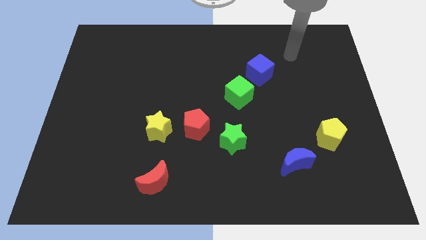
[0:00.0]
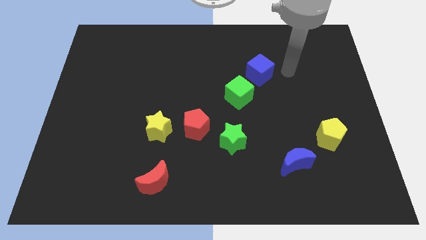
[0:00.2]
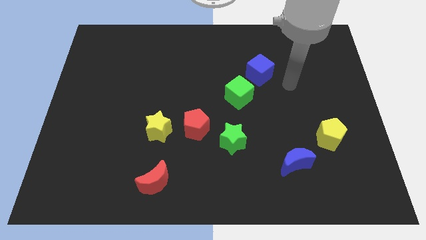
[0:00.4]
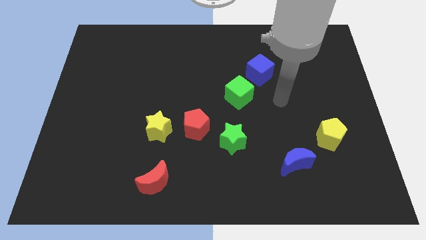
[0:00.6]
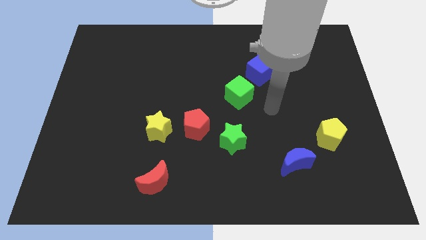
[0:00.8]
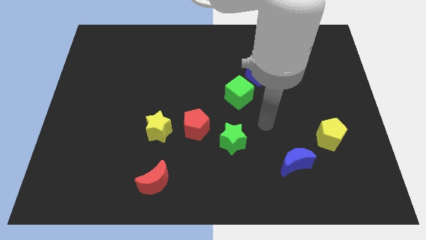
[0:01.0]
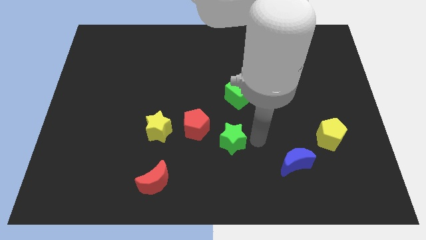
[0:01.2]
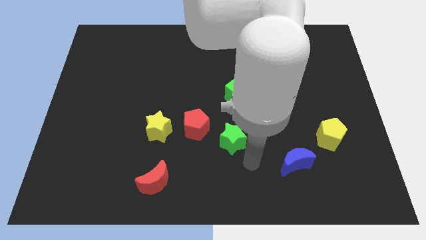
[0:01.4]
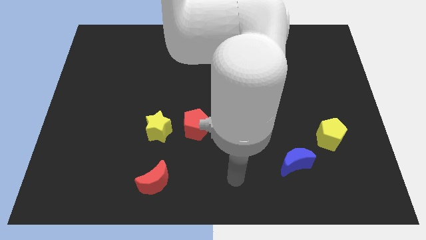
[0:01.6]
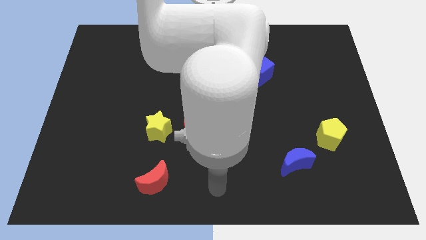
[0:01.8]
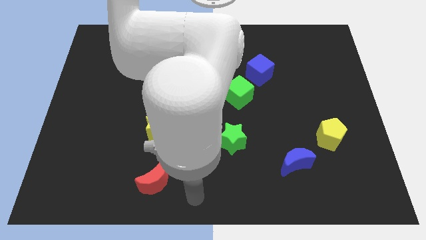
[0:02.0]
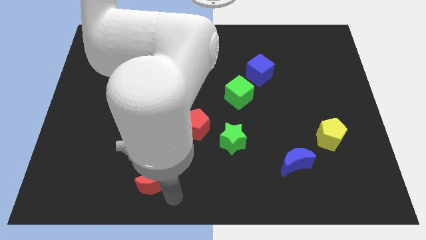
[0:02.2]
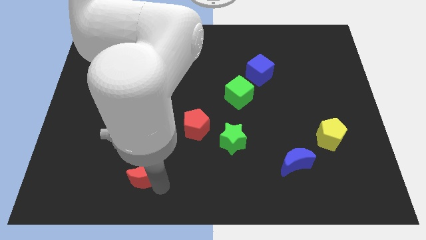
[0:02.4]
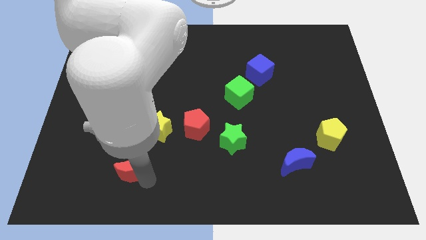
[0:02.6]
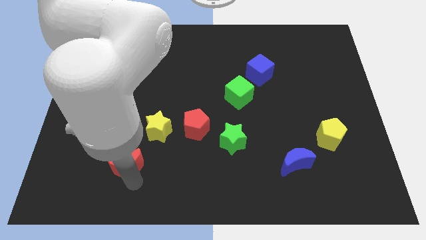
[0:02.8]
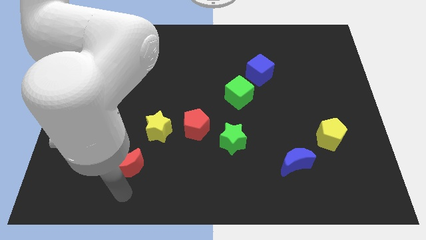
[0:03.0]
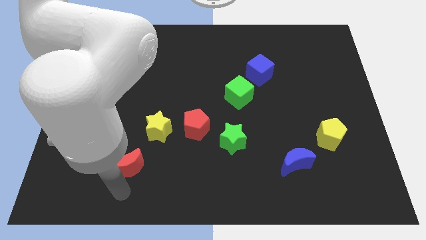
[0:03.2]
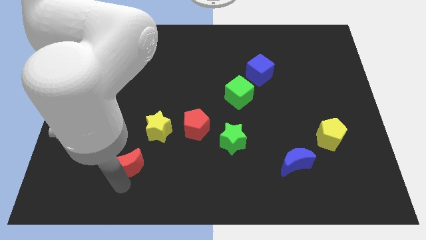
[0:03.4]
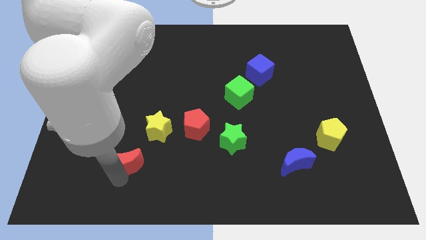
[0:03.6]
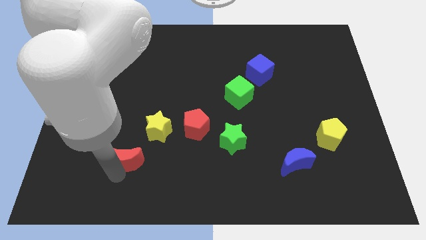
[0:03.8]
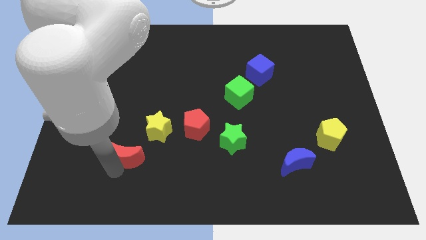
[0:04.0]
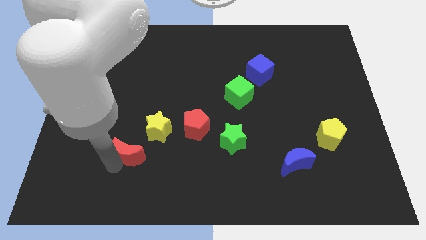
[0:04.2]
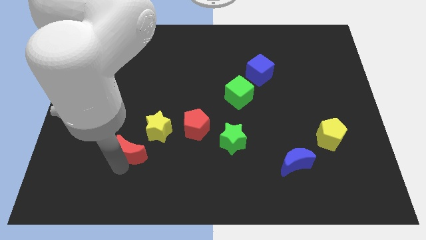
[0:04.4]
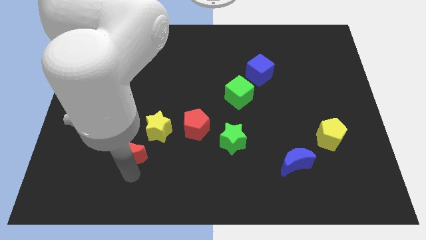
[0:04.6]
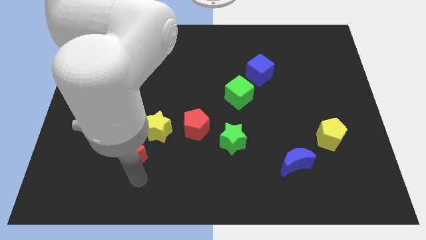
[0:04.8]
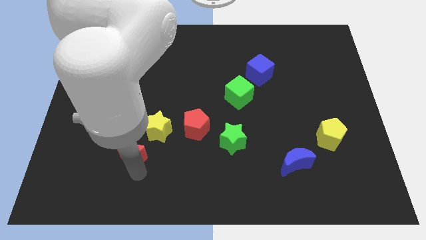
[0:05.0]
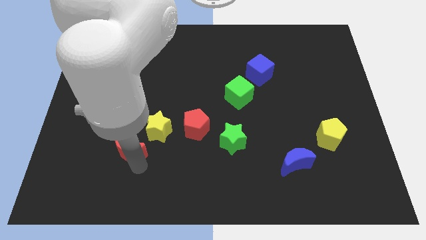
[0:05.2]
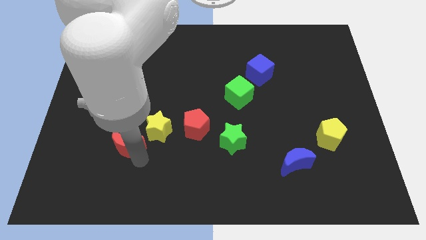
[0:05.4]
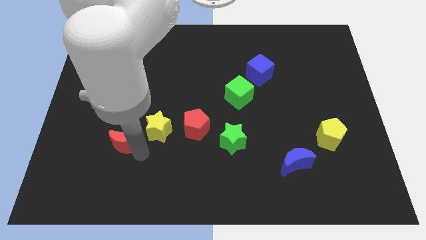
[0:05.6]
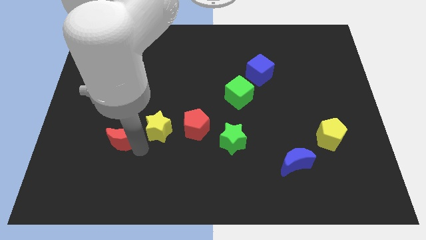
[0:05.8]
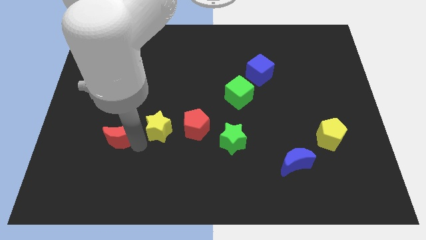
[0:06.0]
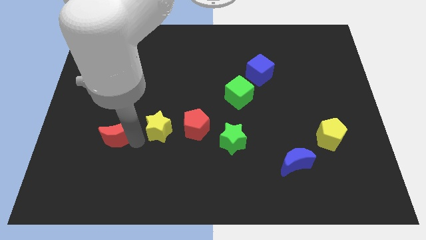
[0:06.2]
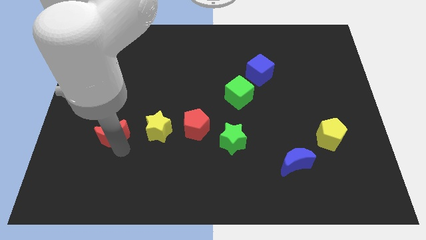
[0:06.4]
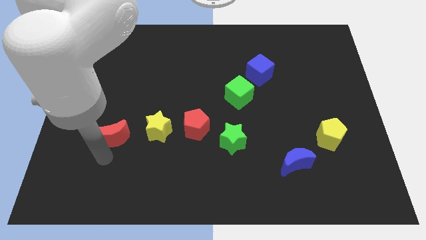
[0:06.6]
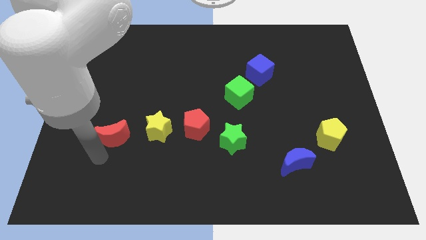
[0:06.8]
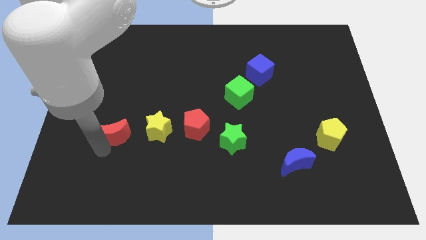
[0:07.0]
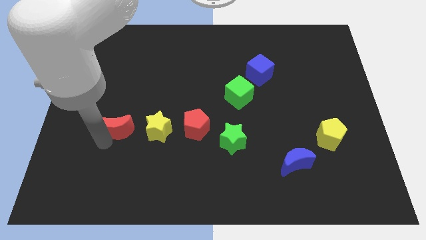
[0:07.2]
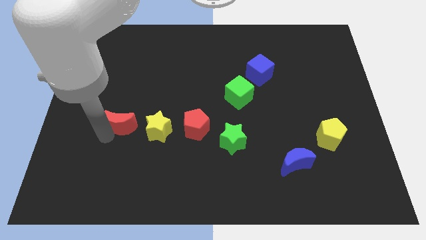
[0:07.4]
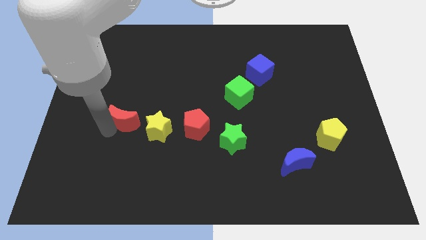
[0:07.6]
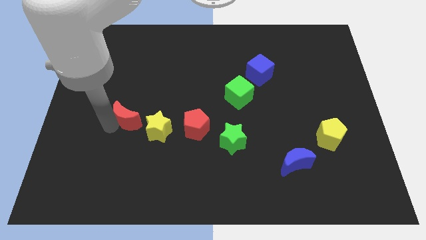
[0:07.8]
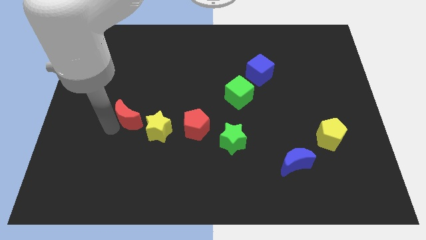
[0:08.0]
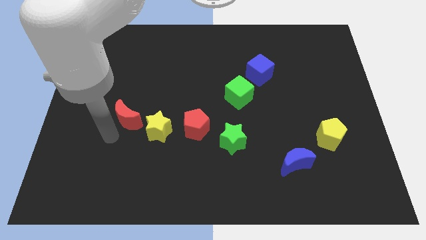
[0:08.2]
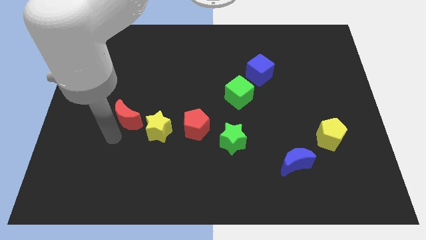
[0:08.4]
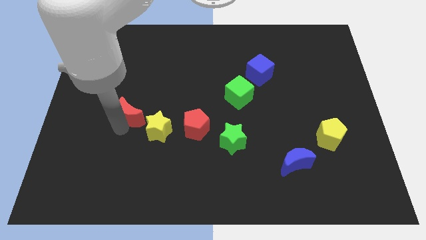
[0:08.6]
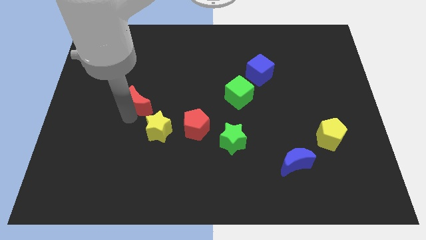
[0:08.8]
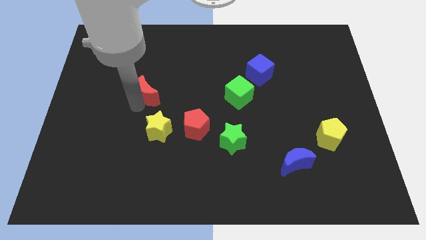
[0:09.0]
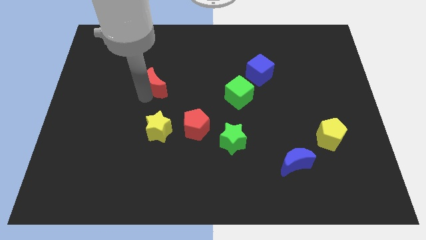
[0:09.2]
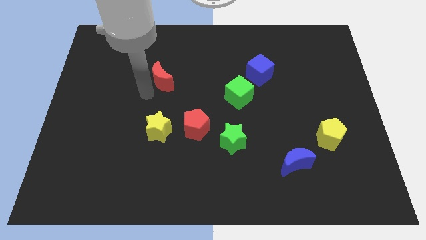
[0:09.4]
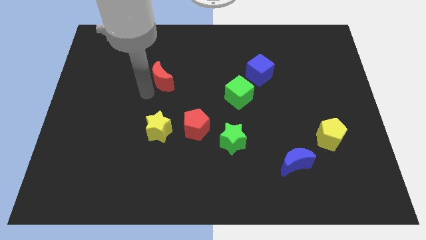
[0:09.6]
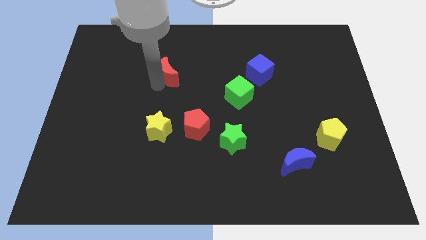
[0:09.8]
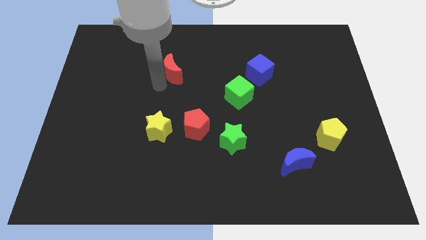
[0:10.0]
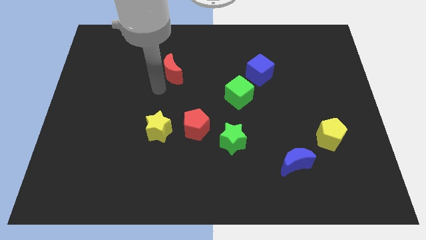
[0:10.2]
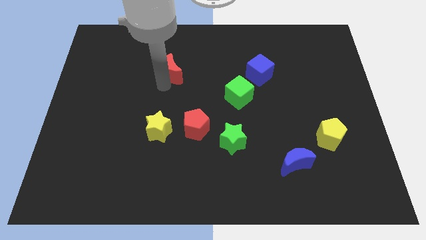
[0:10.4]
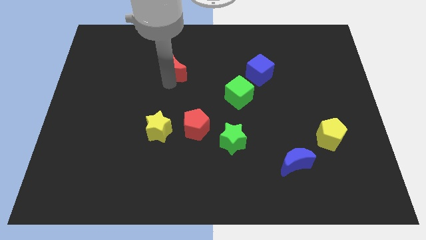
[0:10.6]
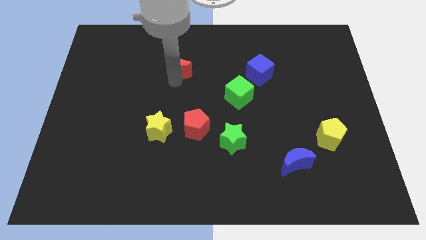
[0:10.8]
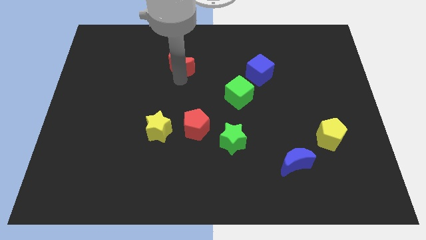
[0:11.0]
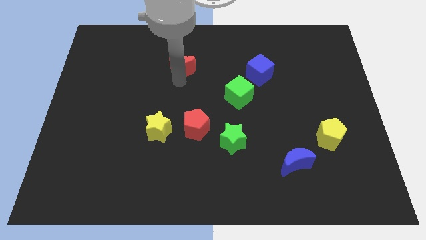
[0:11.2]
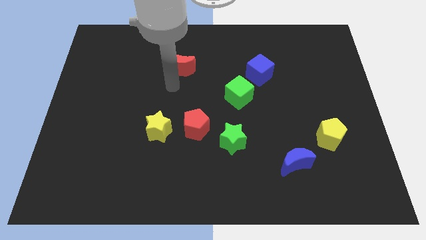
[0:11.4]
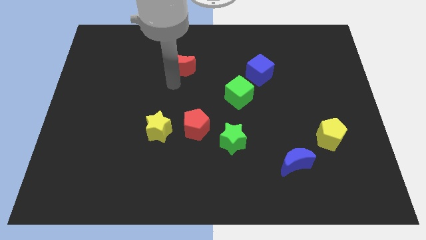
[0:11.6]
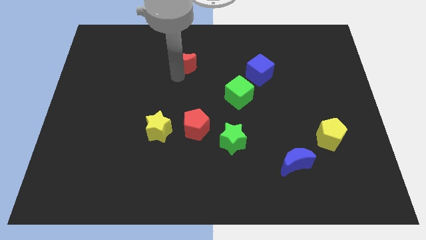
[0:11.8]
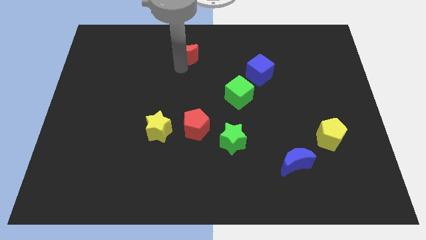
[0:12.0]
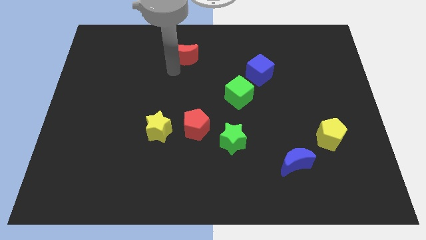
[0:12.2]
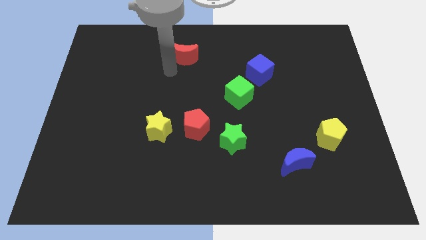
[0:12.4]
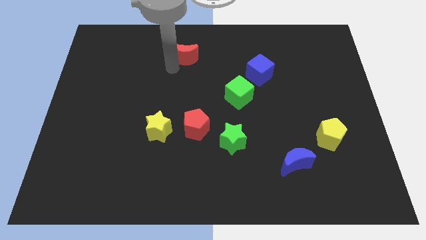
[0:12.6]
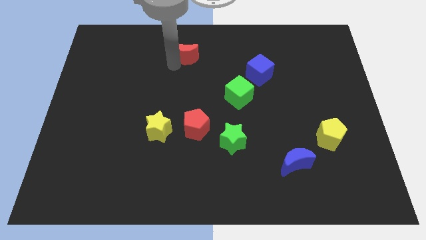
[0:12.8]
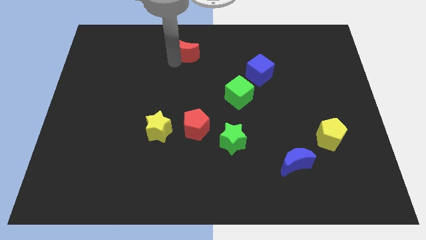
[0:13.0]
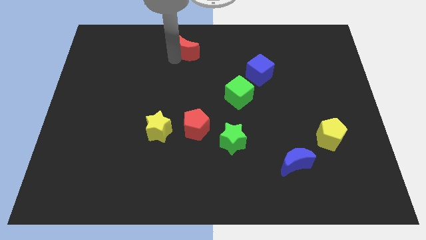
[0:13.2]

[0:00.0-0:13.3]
move the red moon to the towards your base

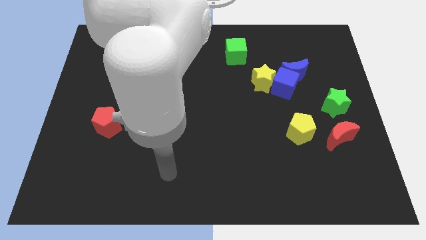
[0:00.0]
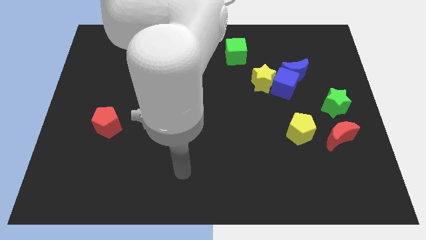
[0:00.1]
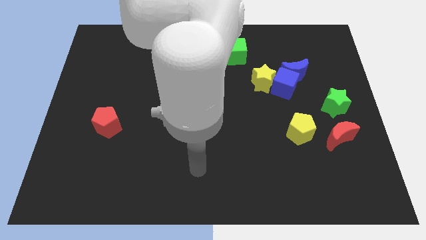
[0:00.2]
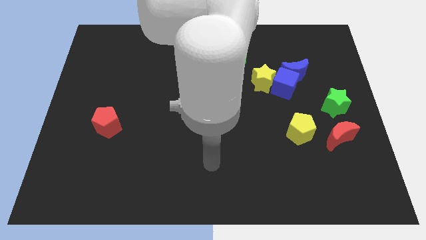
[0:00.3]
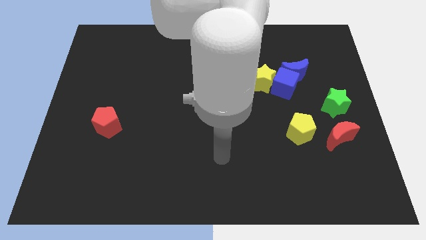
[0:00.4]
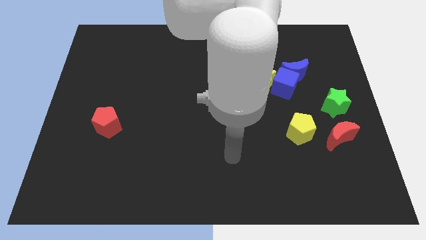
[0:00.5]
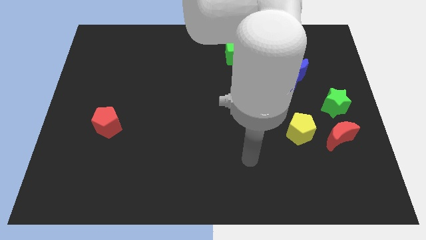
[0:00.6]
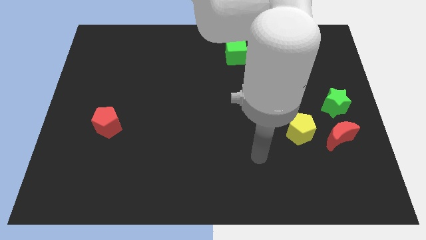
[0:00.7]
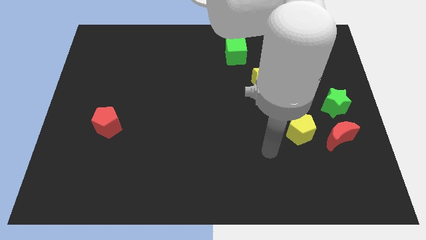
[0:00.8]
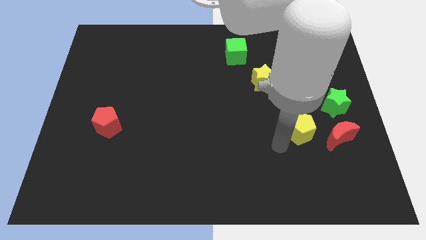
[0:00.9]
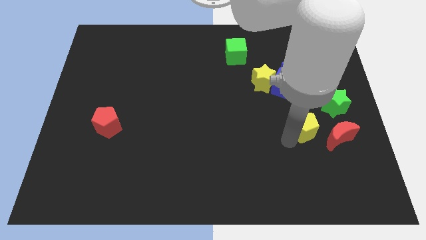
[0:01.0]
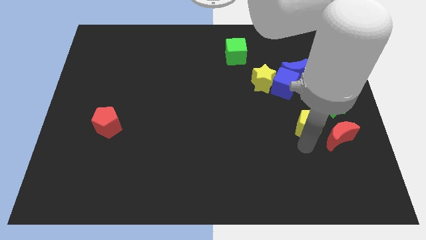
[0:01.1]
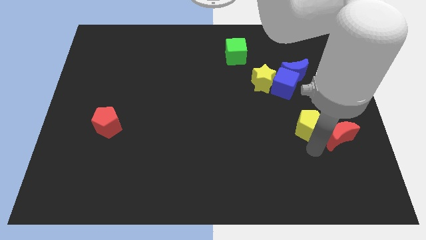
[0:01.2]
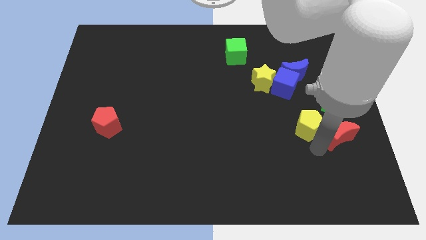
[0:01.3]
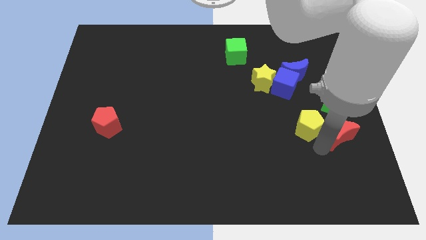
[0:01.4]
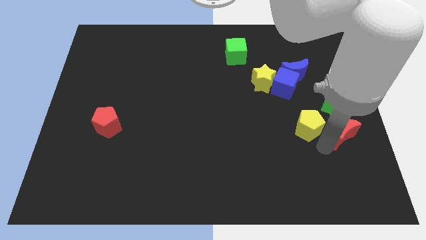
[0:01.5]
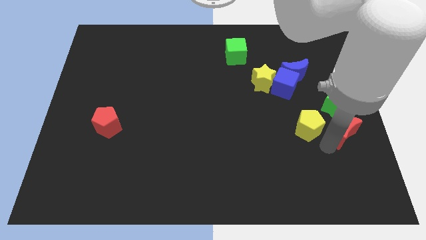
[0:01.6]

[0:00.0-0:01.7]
push the red moon to the right side of the board
